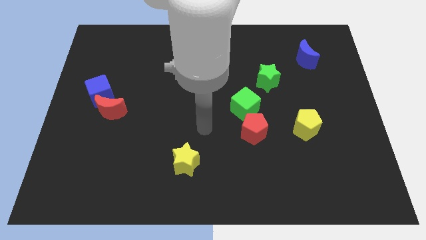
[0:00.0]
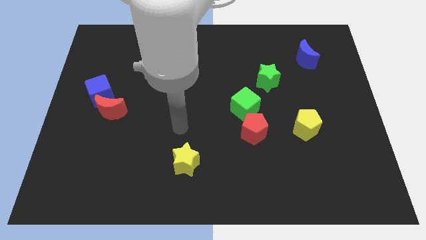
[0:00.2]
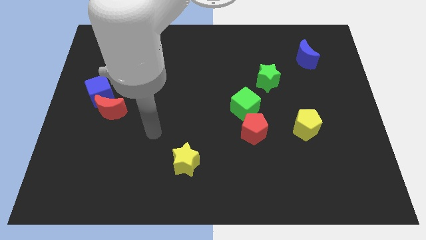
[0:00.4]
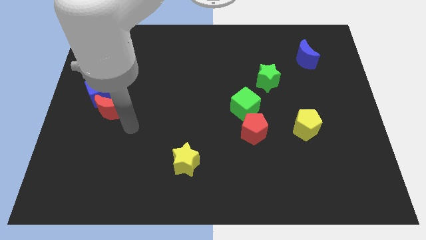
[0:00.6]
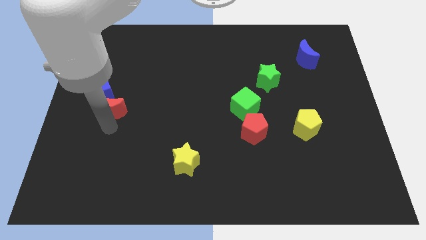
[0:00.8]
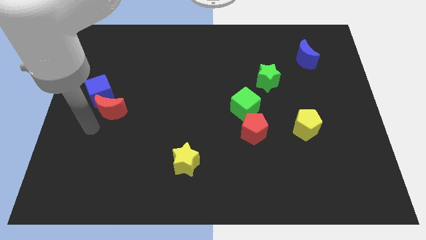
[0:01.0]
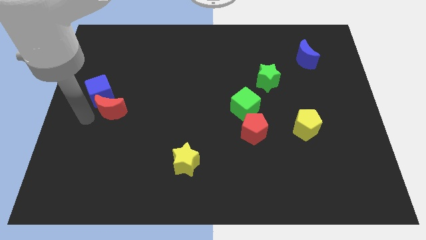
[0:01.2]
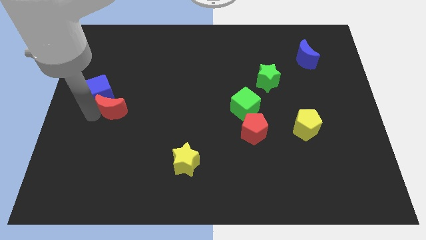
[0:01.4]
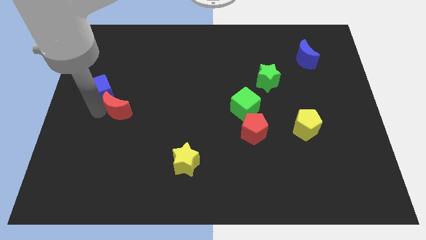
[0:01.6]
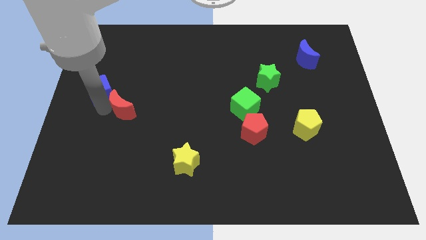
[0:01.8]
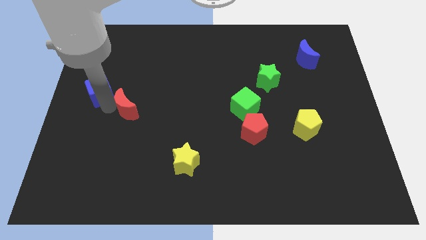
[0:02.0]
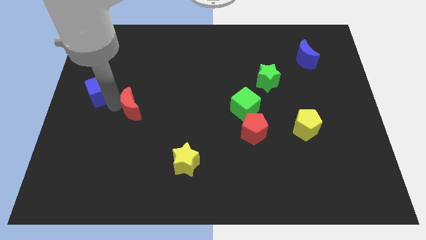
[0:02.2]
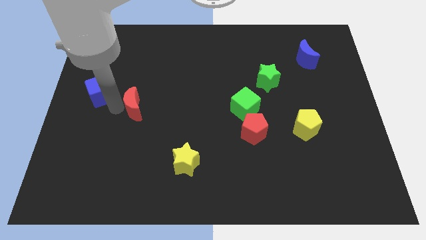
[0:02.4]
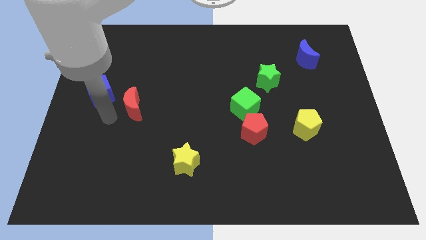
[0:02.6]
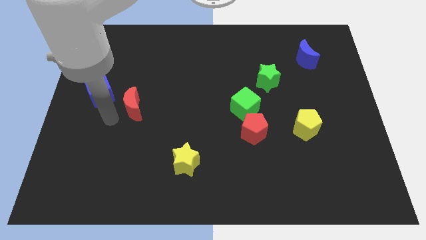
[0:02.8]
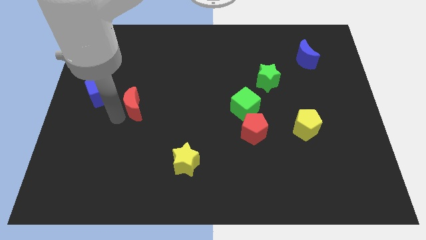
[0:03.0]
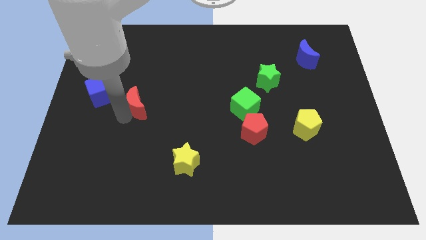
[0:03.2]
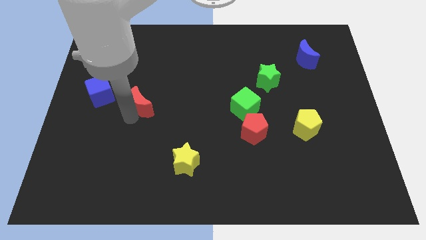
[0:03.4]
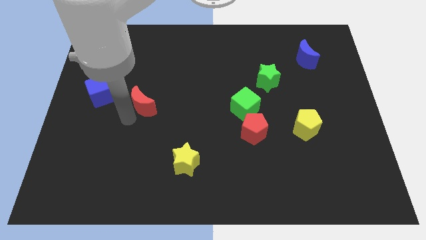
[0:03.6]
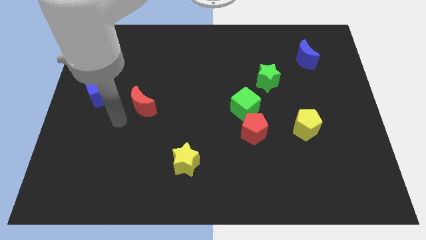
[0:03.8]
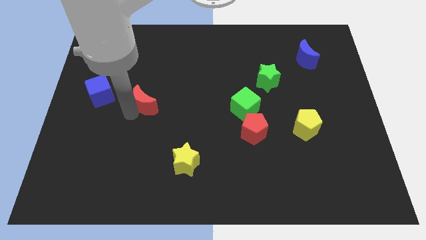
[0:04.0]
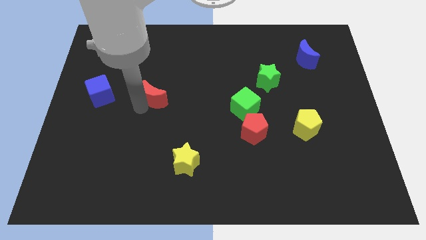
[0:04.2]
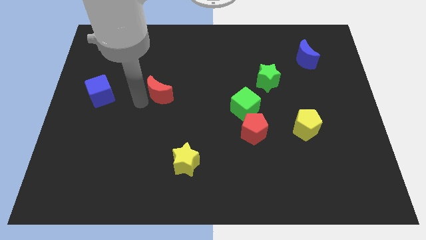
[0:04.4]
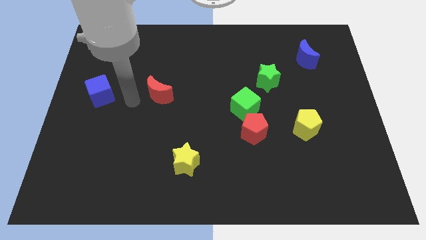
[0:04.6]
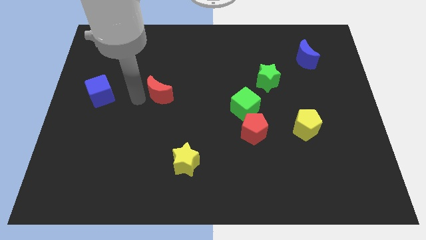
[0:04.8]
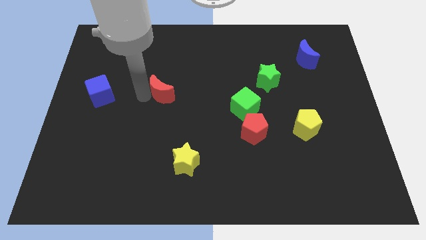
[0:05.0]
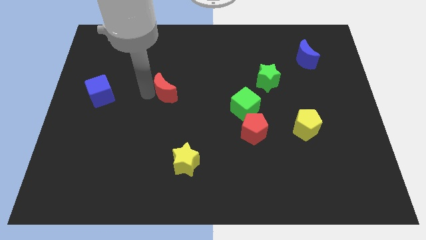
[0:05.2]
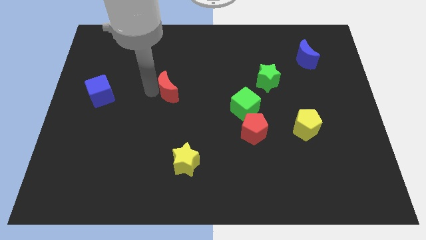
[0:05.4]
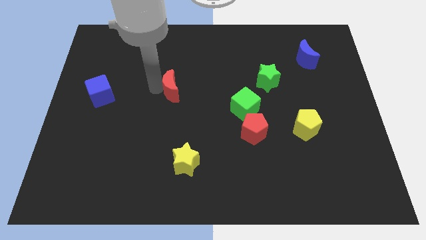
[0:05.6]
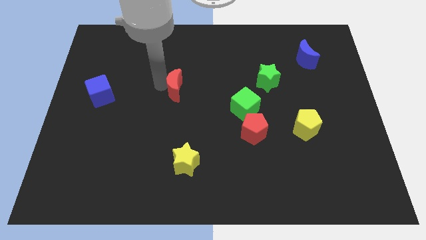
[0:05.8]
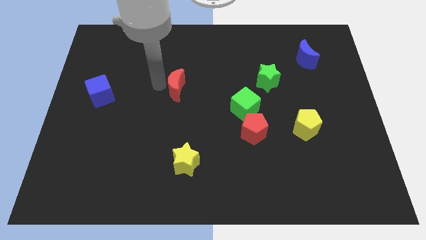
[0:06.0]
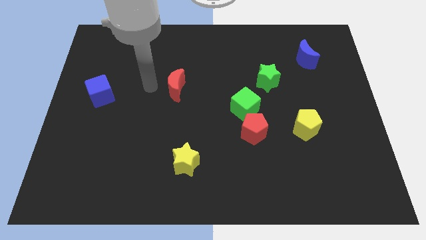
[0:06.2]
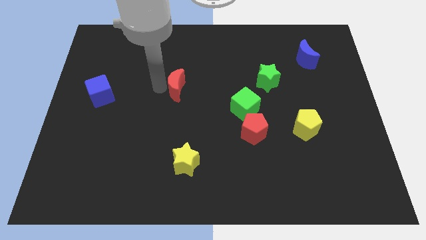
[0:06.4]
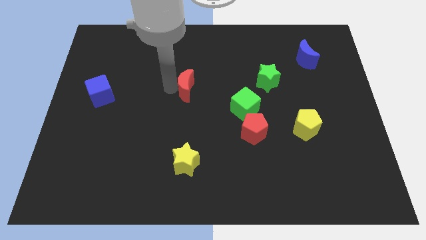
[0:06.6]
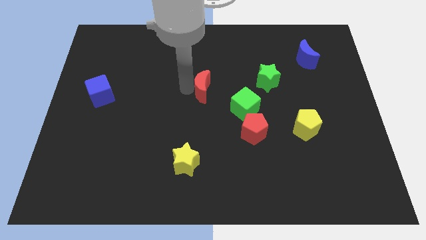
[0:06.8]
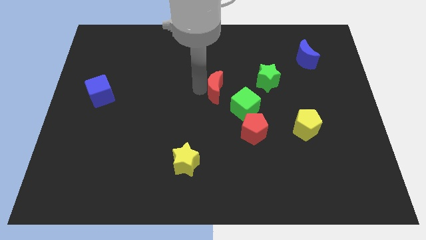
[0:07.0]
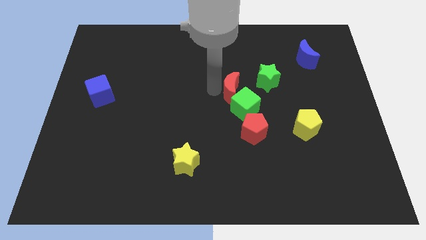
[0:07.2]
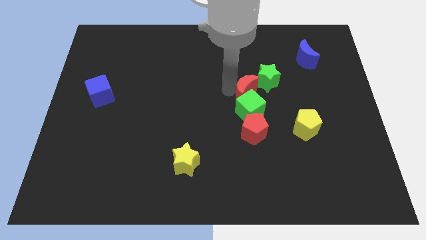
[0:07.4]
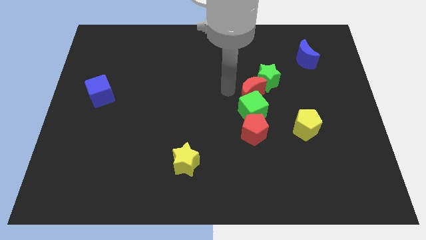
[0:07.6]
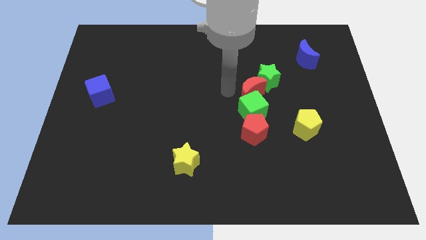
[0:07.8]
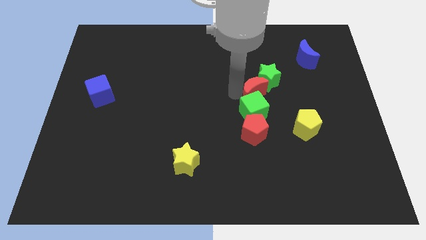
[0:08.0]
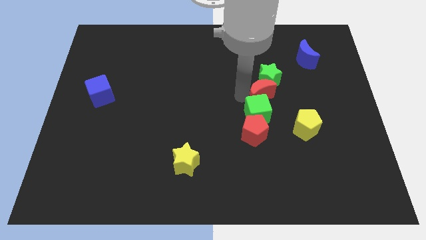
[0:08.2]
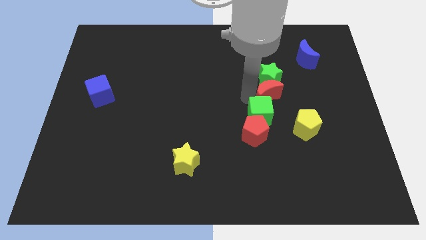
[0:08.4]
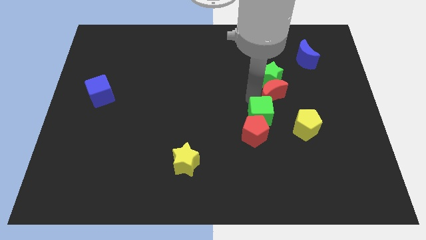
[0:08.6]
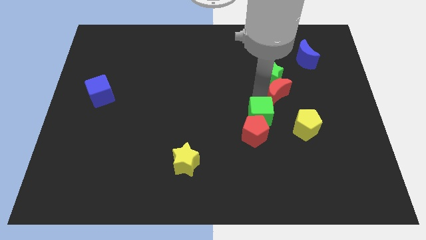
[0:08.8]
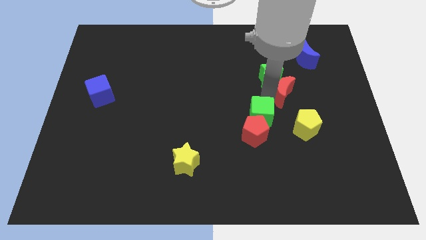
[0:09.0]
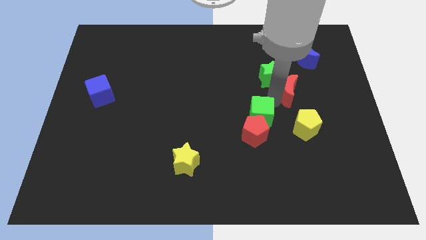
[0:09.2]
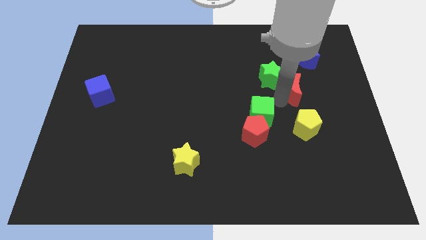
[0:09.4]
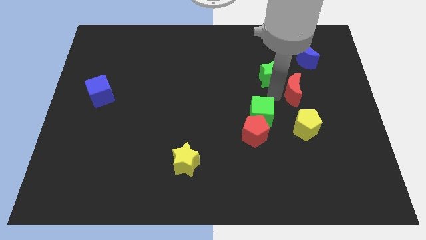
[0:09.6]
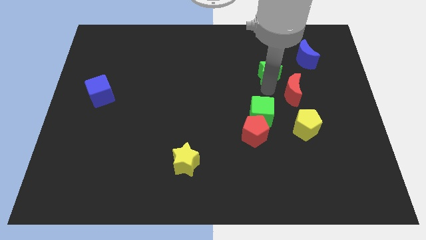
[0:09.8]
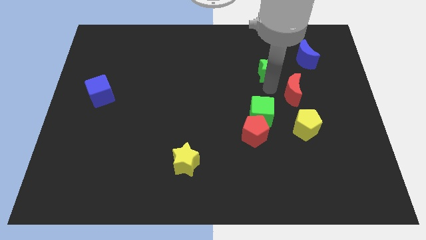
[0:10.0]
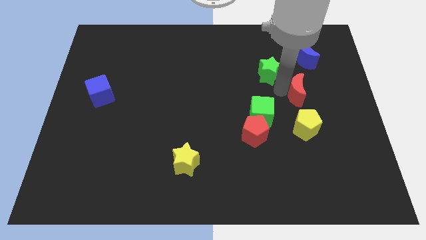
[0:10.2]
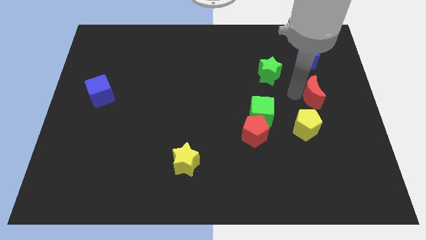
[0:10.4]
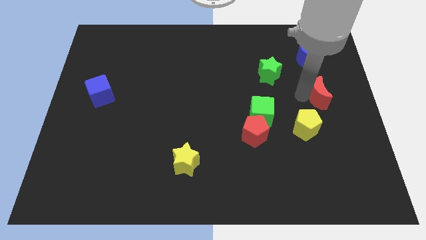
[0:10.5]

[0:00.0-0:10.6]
move the red moon to the center right
